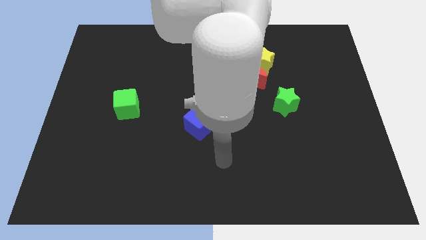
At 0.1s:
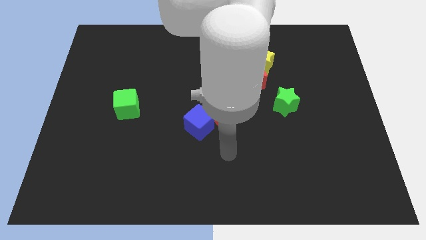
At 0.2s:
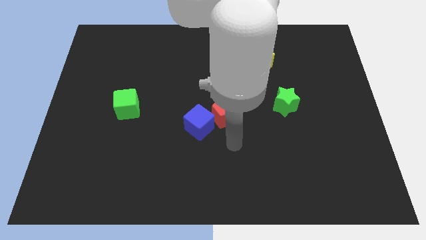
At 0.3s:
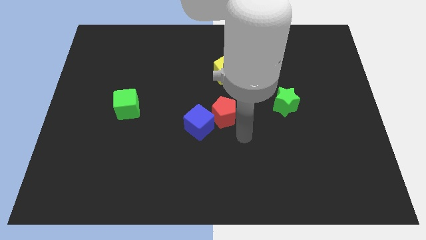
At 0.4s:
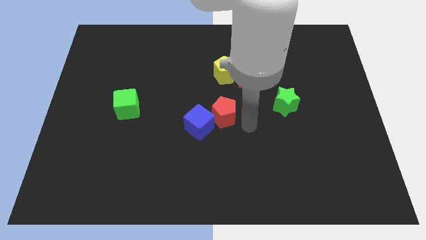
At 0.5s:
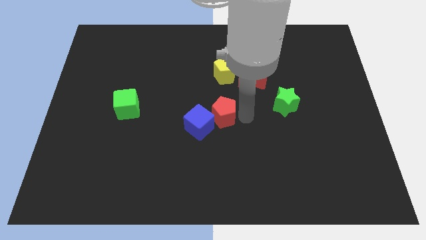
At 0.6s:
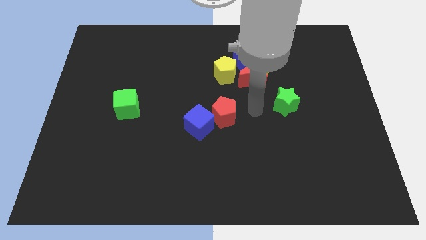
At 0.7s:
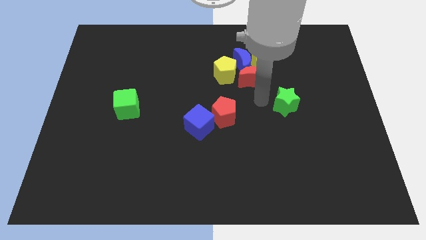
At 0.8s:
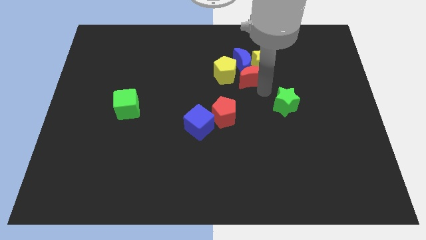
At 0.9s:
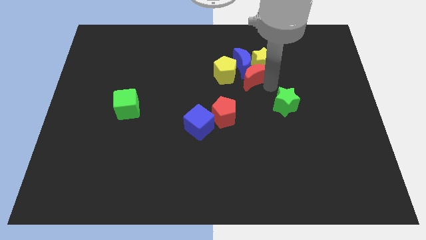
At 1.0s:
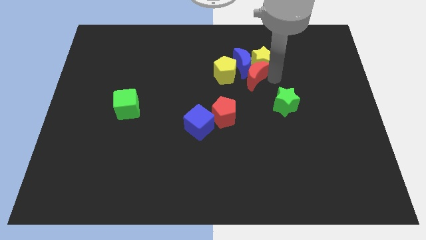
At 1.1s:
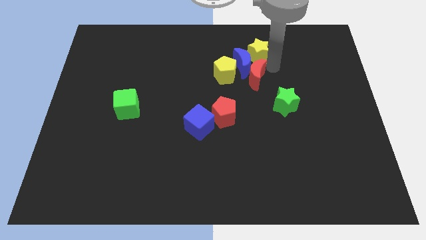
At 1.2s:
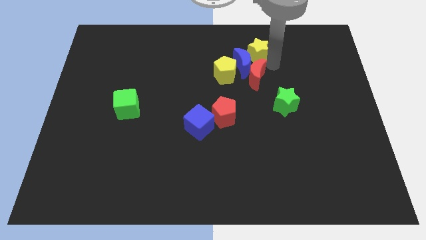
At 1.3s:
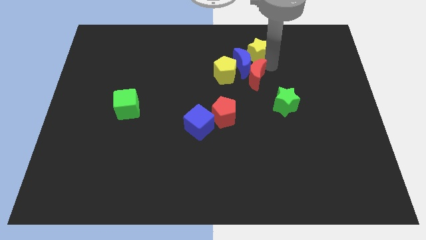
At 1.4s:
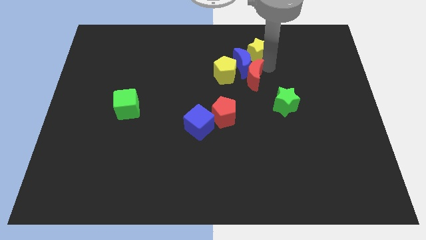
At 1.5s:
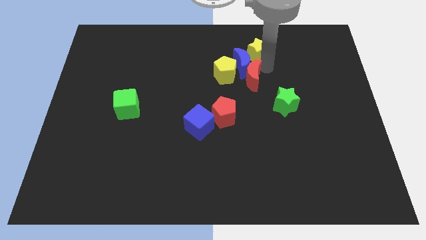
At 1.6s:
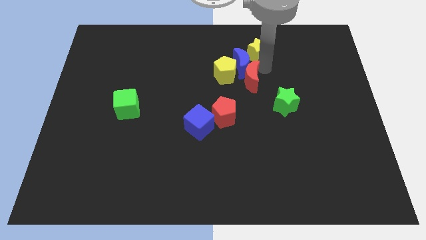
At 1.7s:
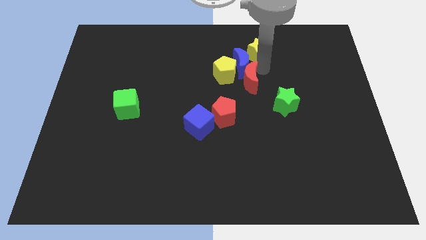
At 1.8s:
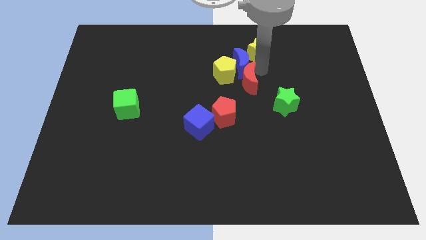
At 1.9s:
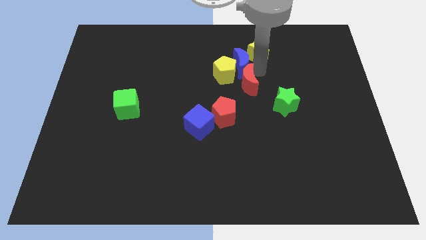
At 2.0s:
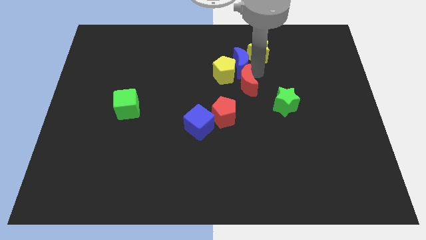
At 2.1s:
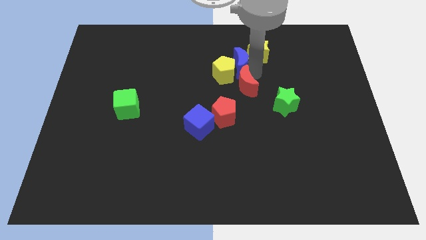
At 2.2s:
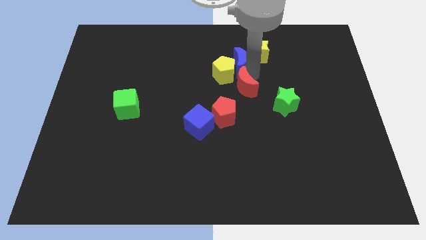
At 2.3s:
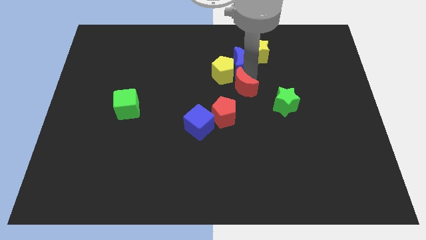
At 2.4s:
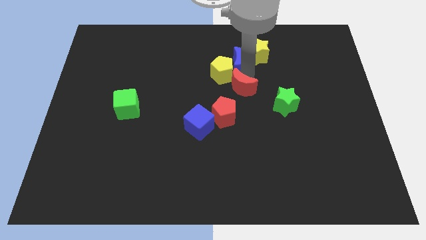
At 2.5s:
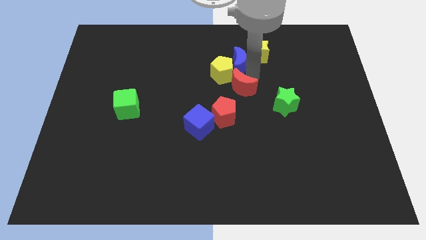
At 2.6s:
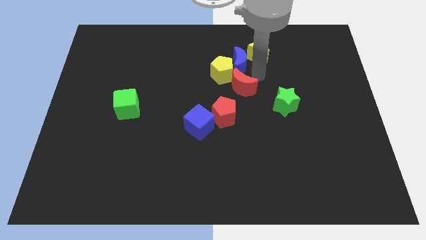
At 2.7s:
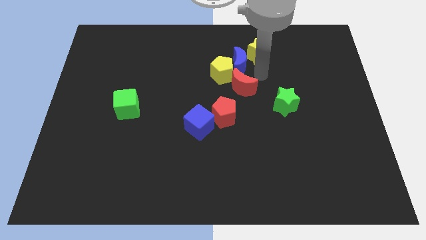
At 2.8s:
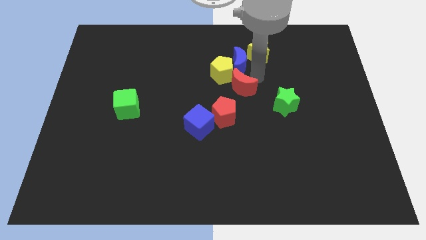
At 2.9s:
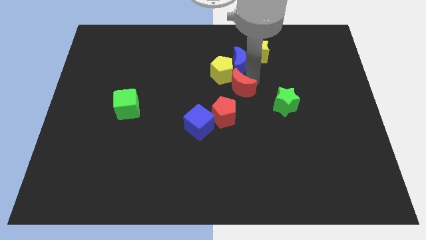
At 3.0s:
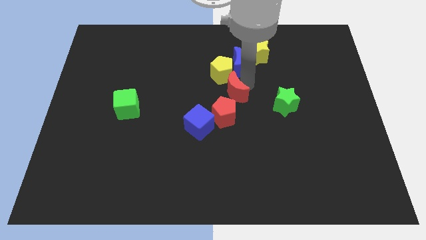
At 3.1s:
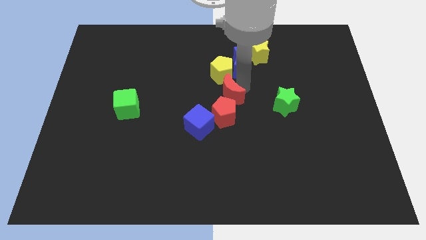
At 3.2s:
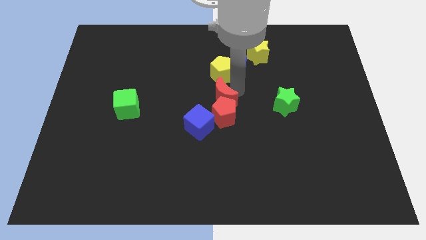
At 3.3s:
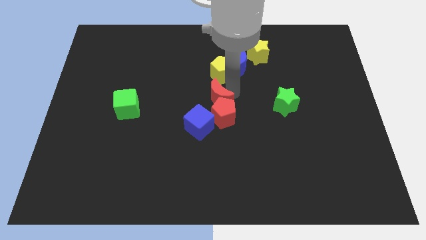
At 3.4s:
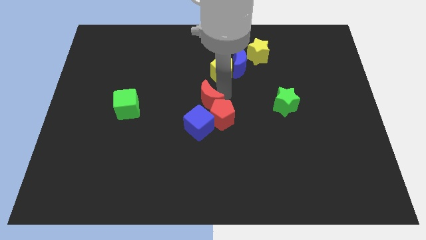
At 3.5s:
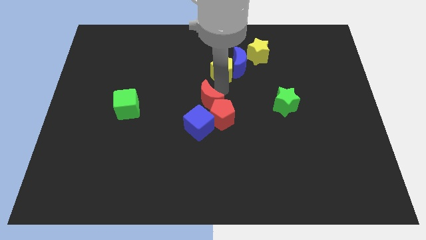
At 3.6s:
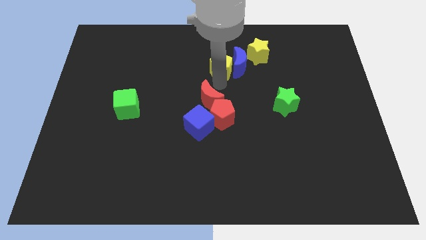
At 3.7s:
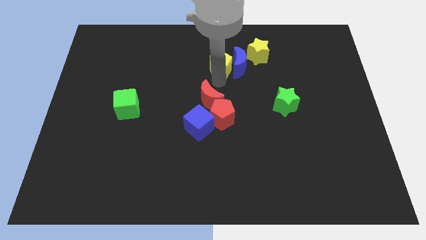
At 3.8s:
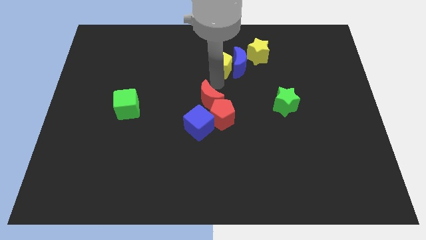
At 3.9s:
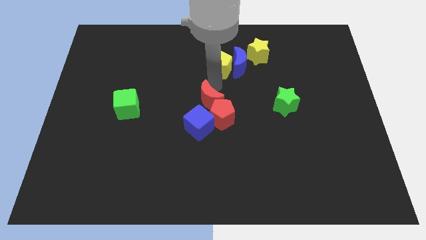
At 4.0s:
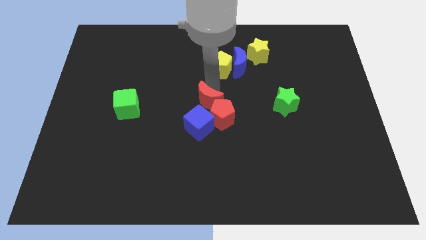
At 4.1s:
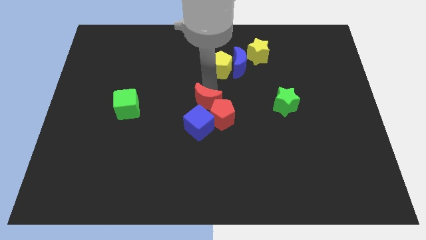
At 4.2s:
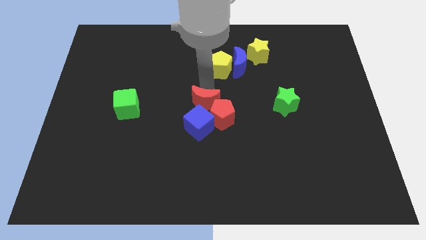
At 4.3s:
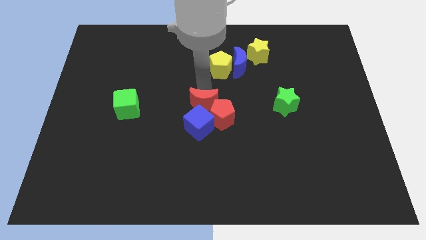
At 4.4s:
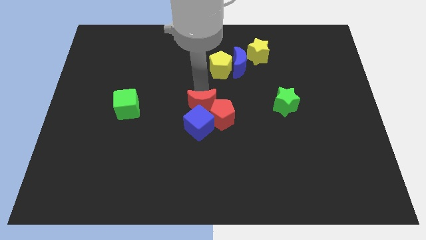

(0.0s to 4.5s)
push the red moon towards the blue cube

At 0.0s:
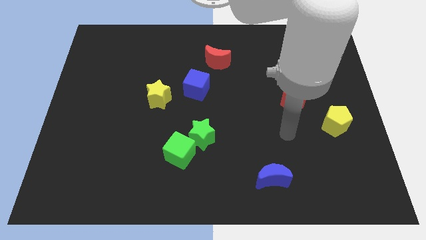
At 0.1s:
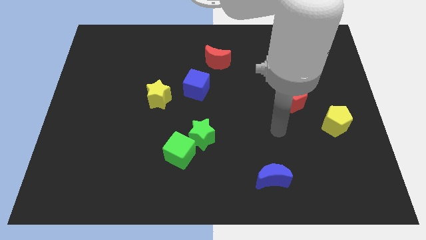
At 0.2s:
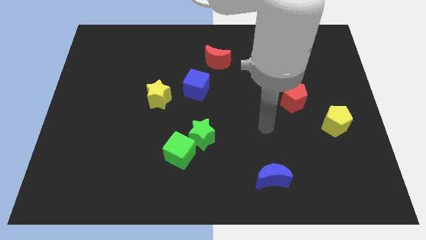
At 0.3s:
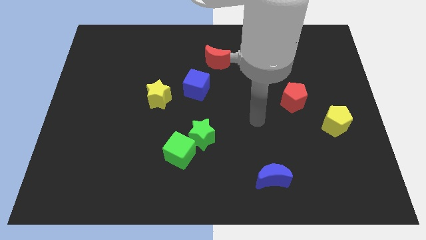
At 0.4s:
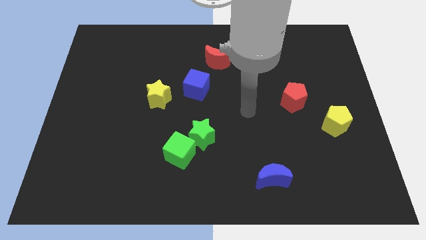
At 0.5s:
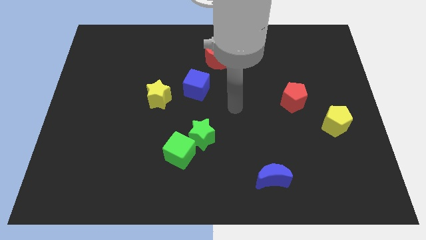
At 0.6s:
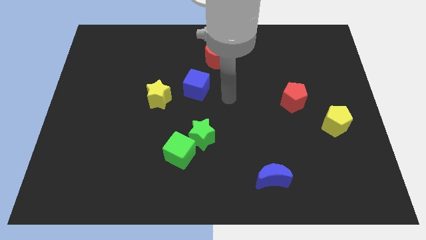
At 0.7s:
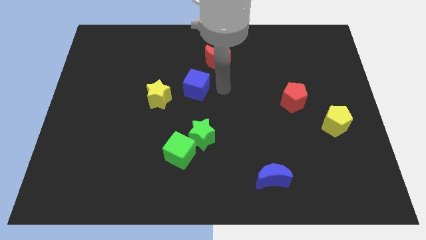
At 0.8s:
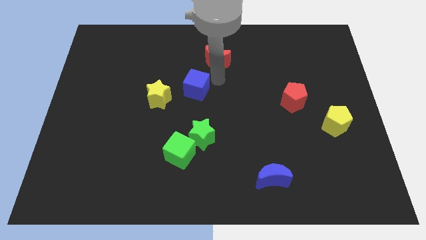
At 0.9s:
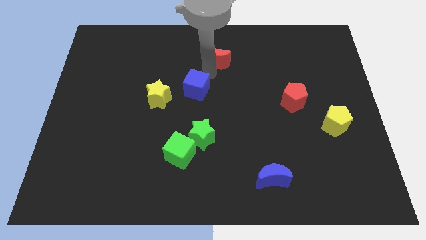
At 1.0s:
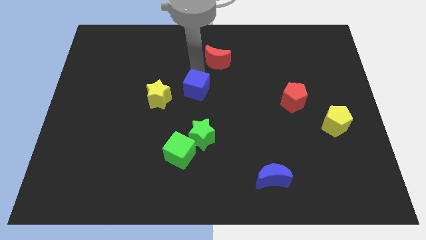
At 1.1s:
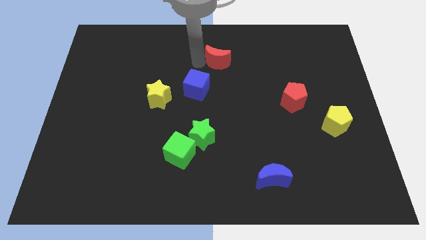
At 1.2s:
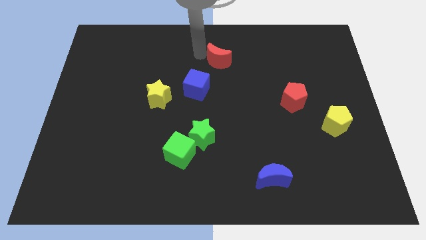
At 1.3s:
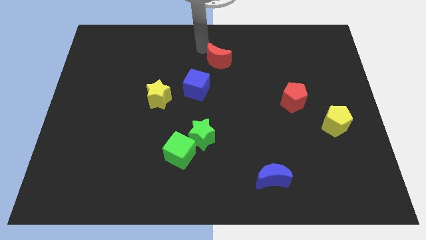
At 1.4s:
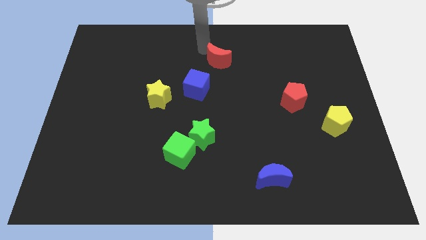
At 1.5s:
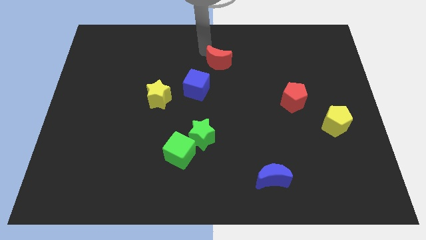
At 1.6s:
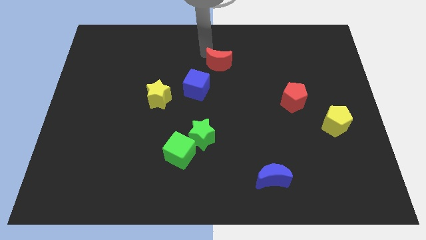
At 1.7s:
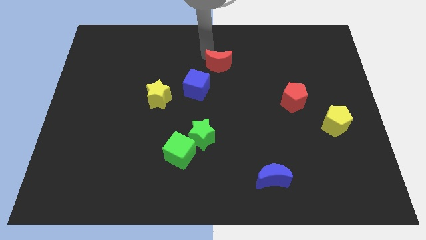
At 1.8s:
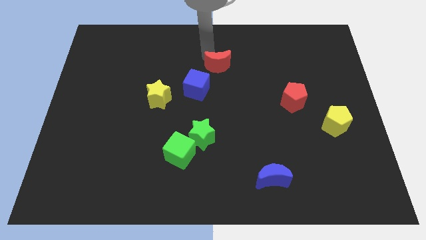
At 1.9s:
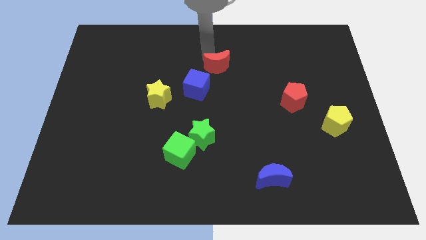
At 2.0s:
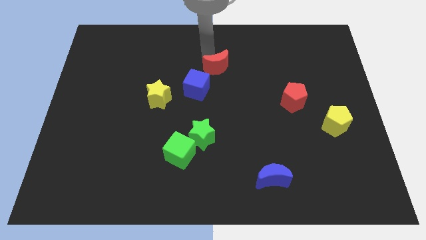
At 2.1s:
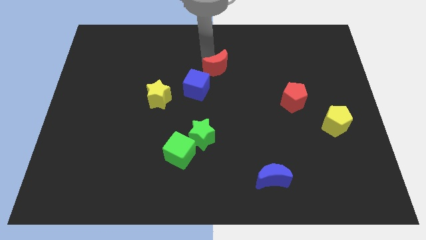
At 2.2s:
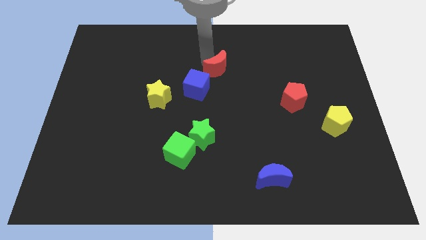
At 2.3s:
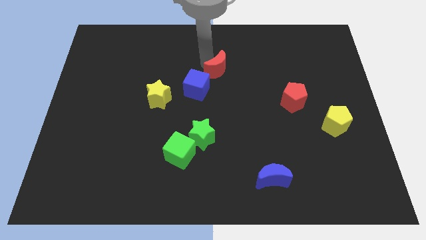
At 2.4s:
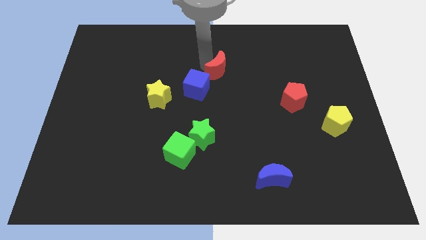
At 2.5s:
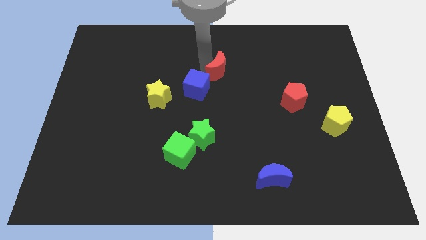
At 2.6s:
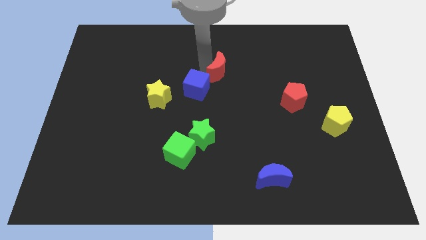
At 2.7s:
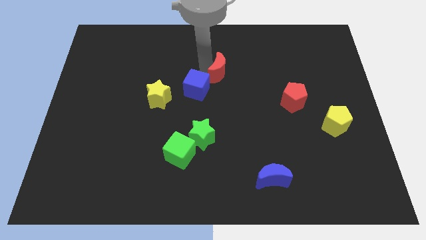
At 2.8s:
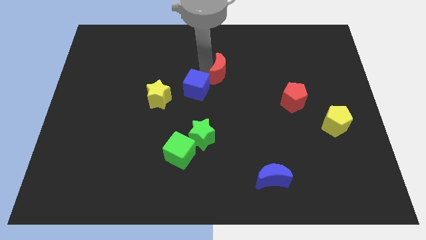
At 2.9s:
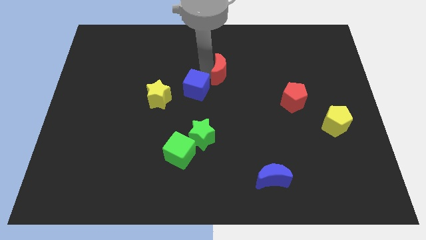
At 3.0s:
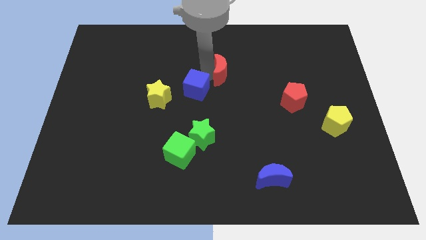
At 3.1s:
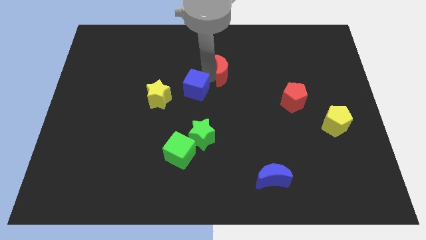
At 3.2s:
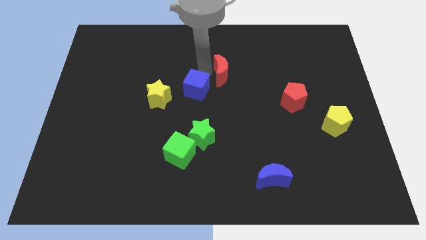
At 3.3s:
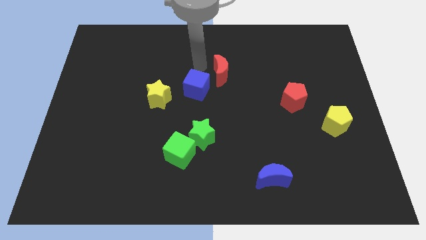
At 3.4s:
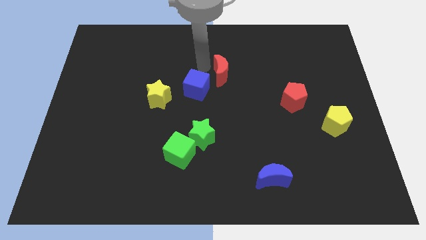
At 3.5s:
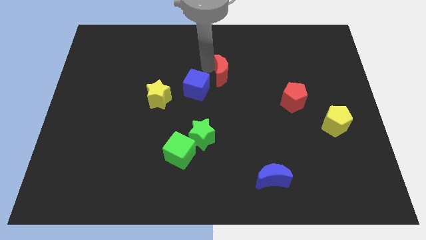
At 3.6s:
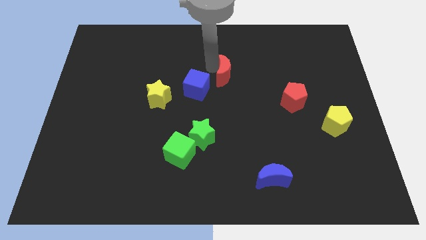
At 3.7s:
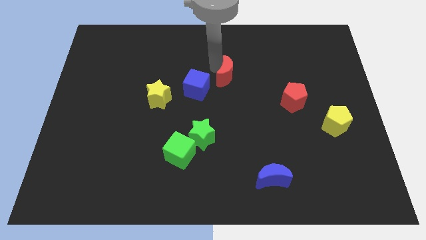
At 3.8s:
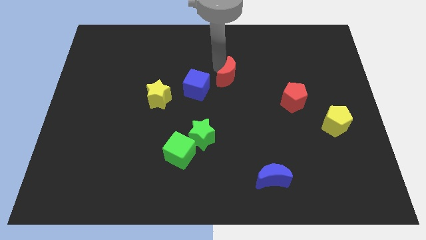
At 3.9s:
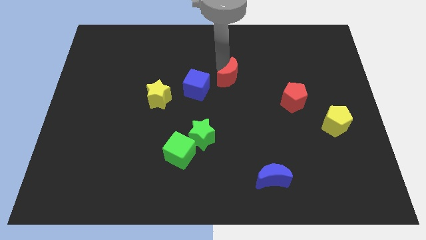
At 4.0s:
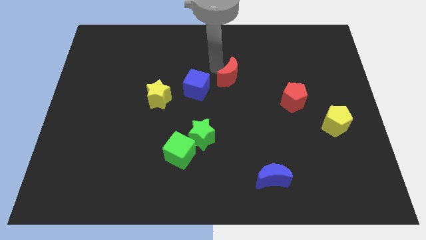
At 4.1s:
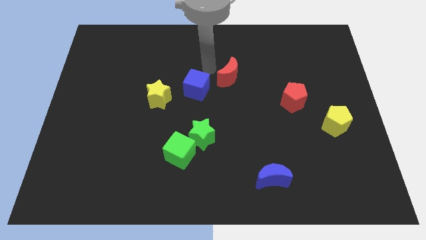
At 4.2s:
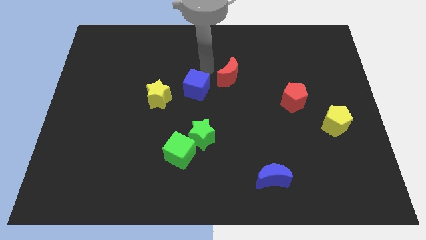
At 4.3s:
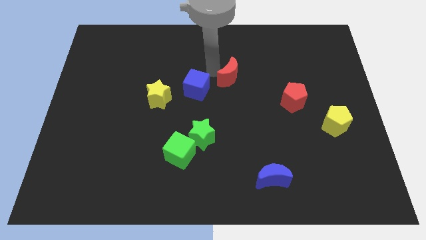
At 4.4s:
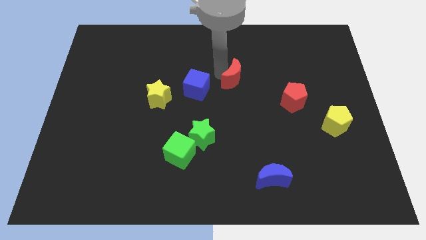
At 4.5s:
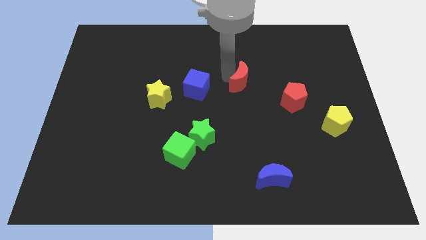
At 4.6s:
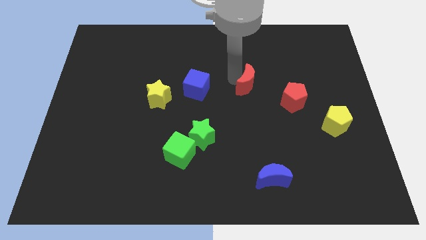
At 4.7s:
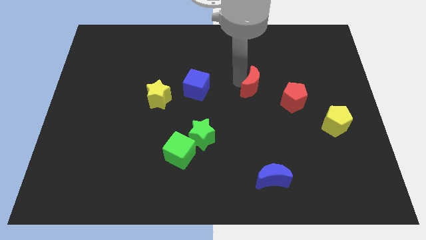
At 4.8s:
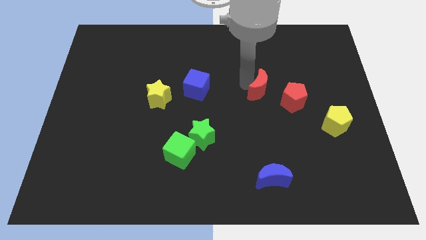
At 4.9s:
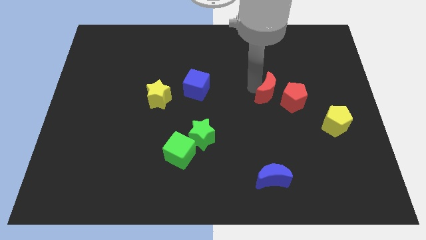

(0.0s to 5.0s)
push the red moon close to the red pentagon
